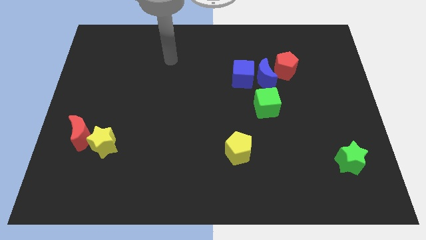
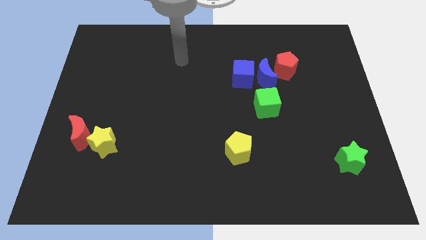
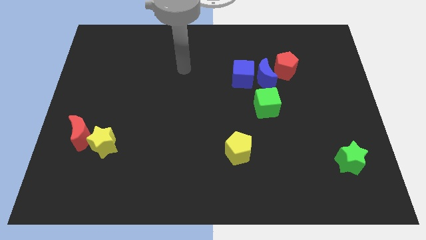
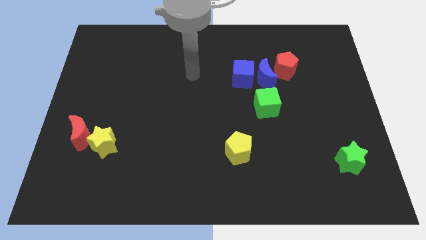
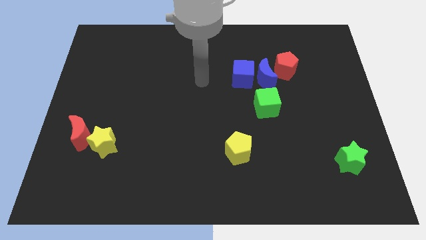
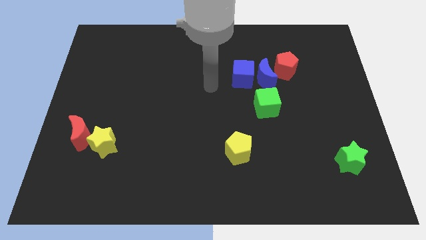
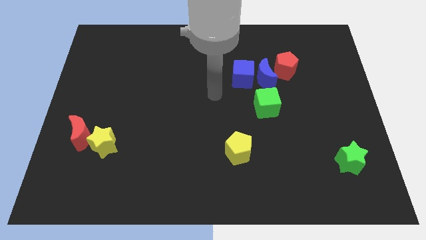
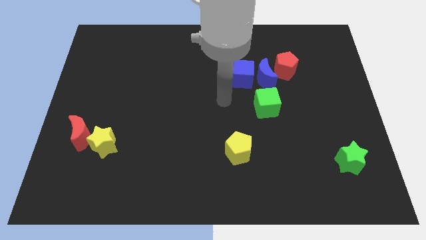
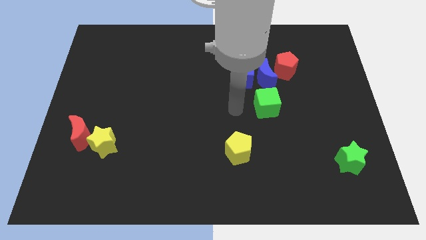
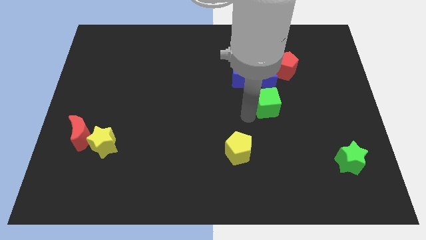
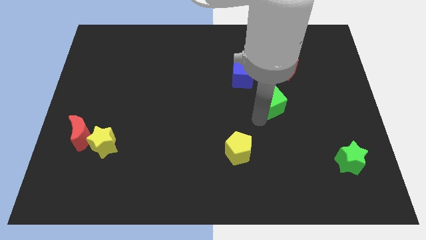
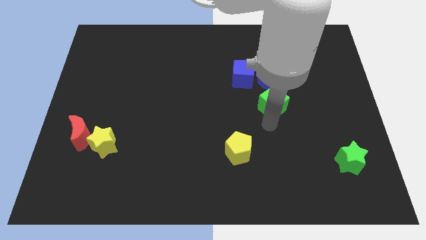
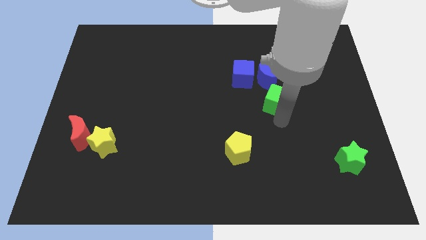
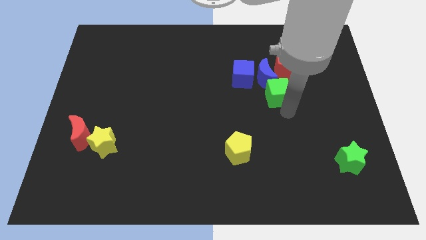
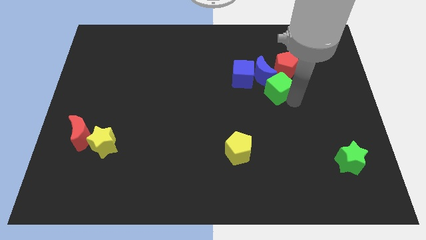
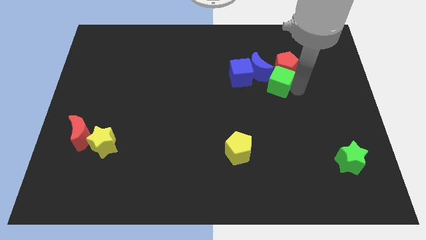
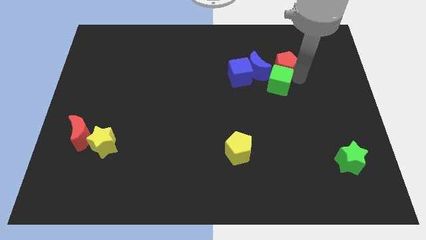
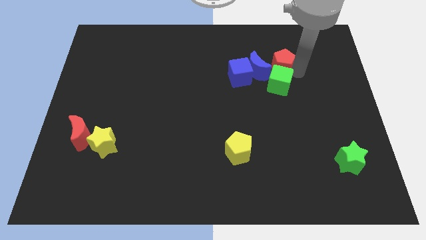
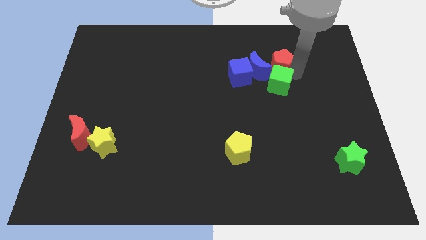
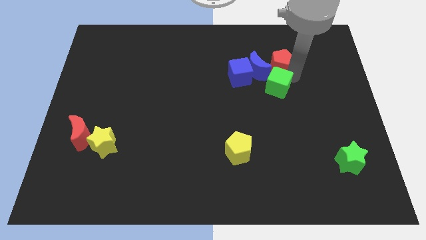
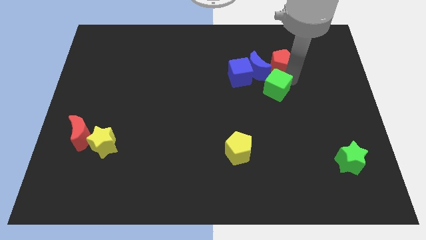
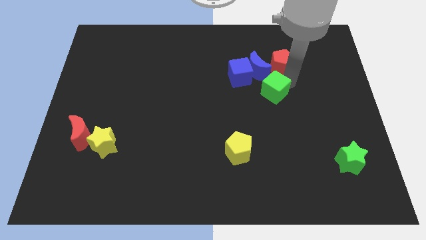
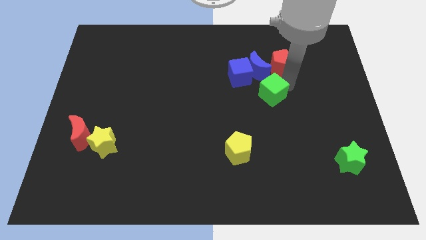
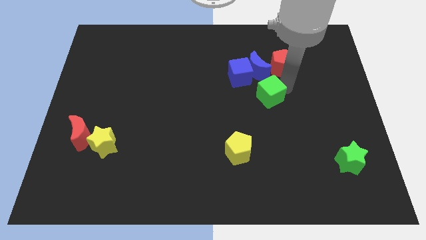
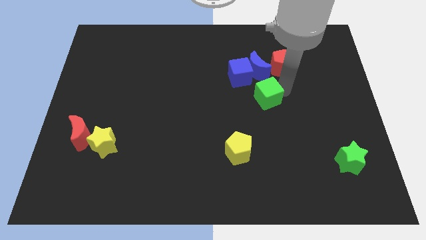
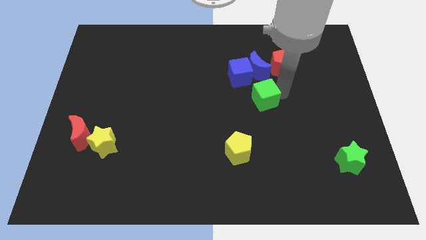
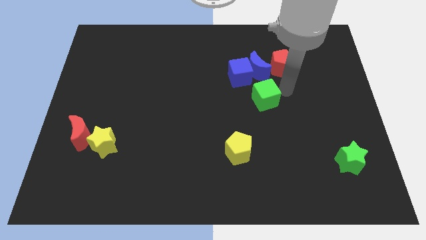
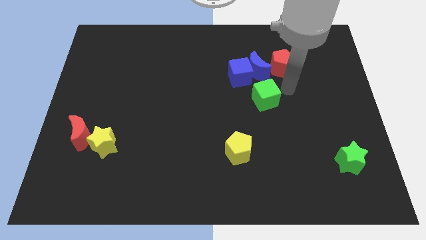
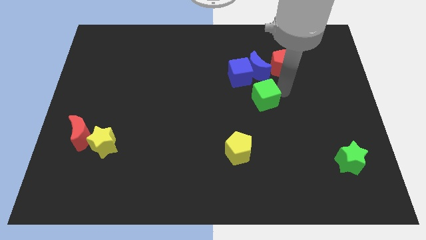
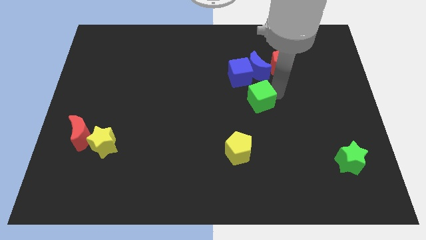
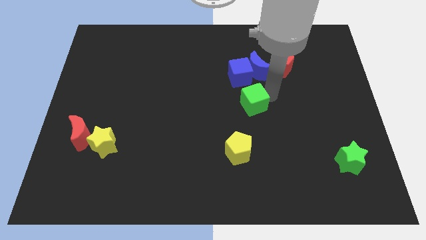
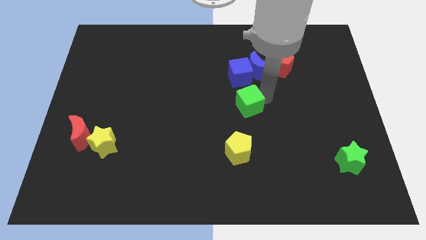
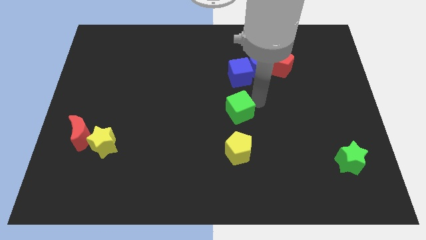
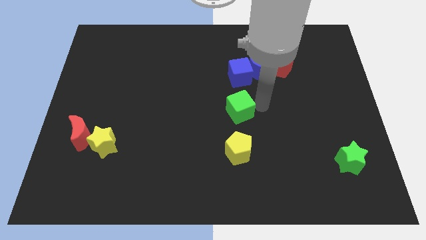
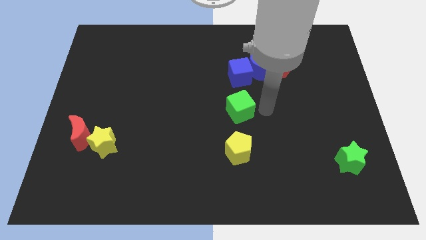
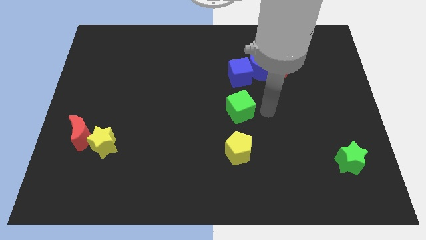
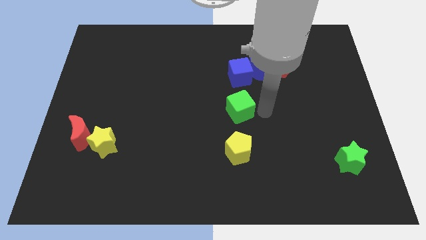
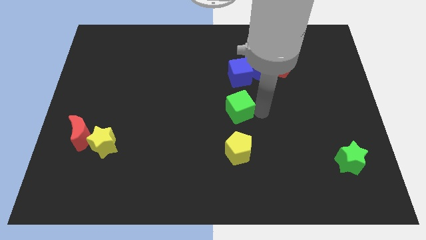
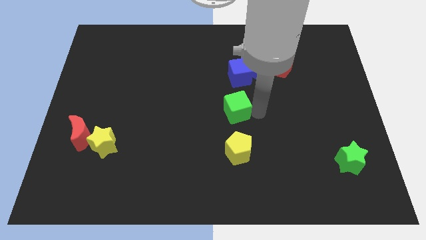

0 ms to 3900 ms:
move the green cube to the left somewhat

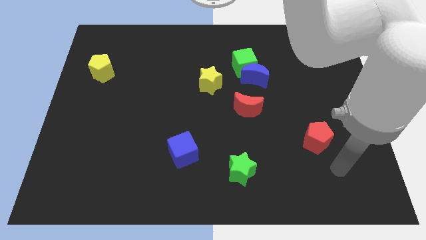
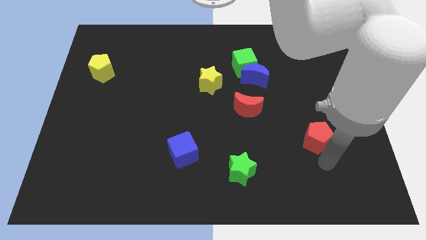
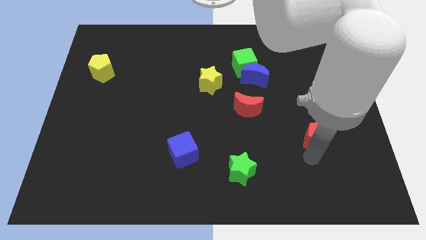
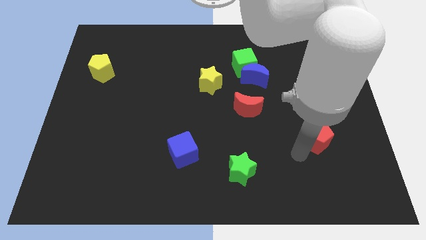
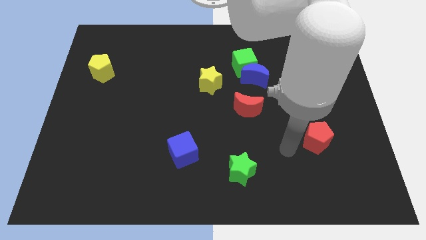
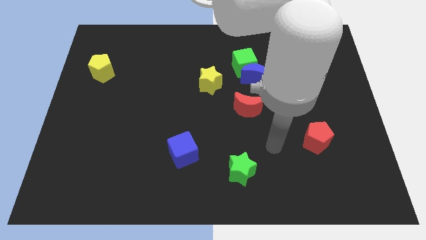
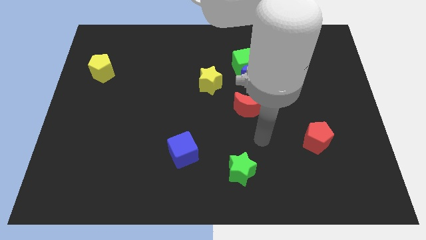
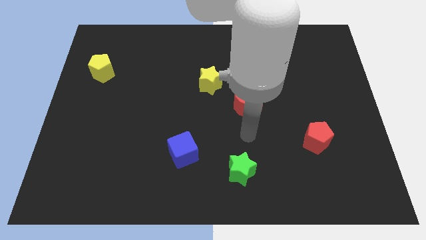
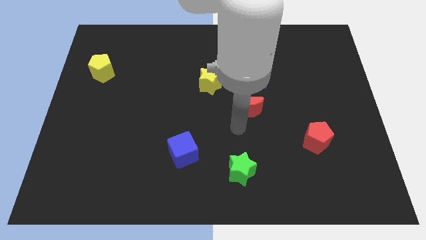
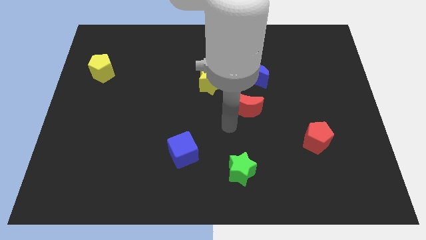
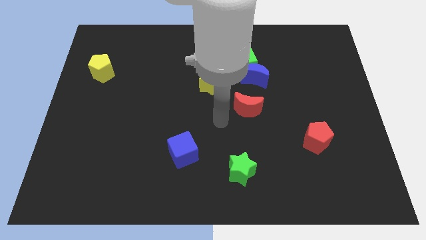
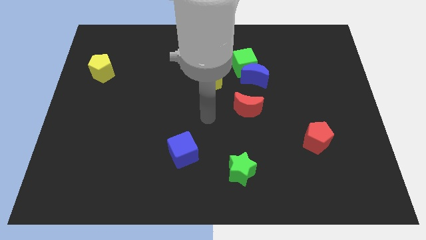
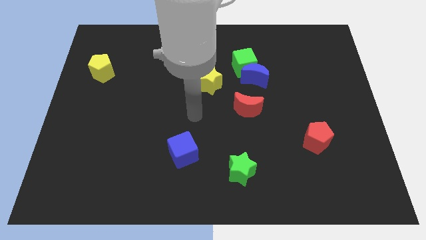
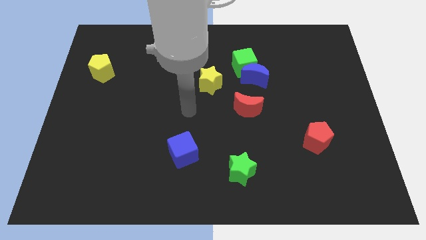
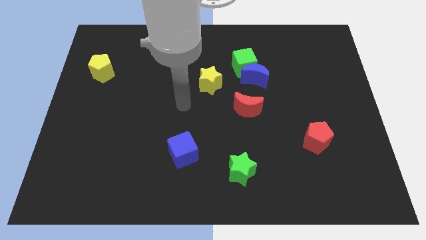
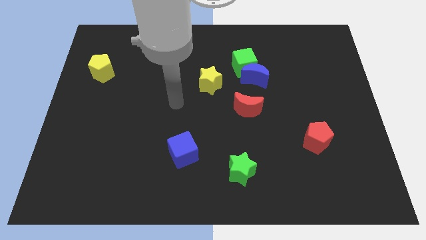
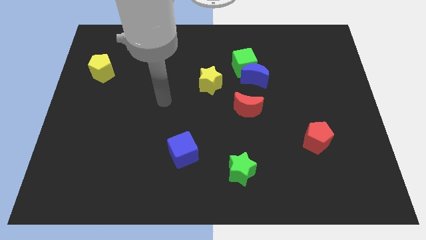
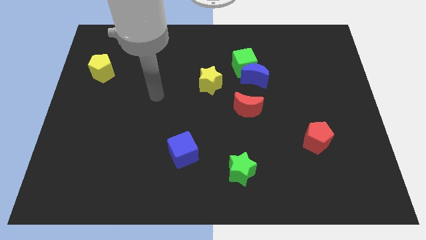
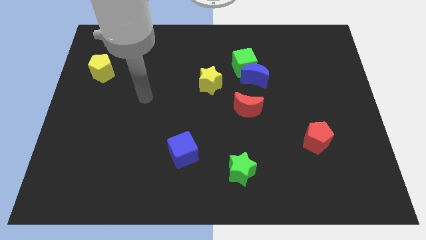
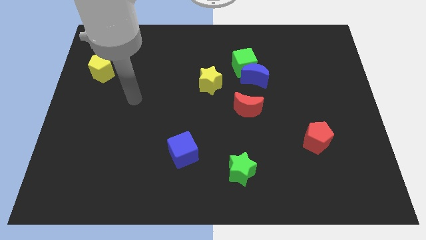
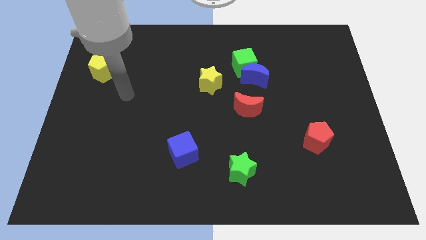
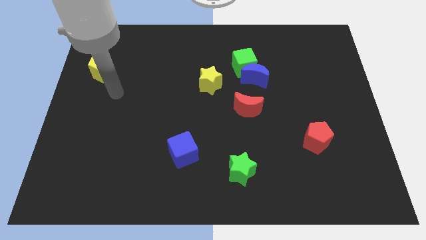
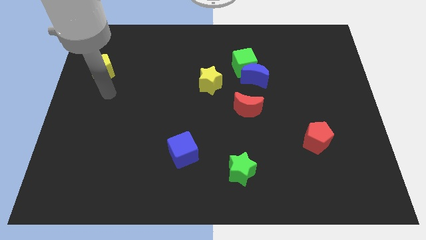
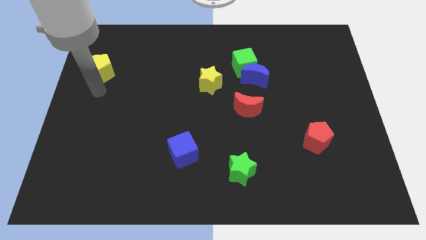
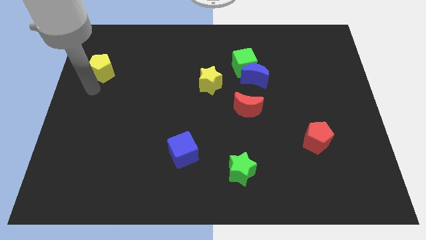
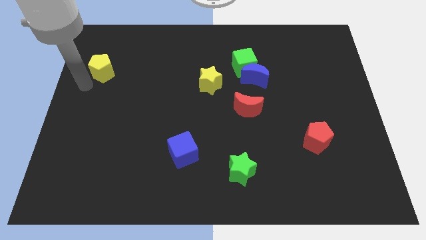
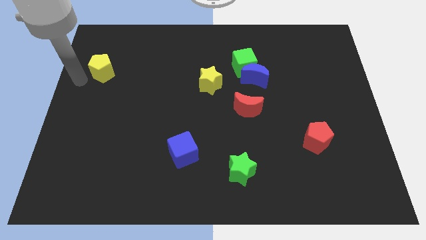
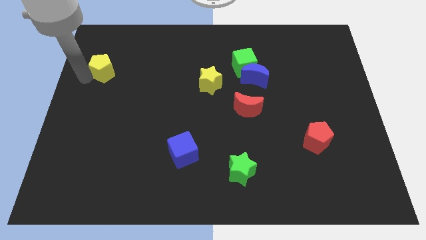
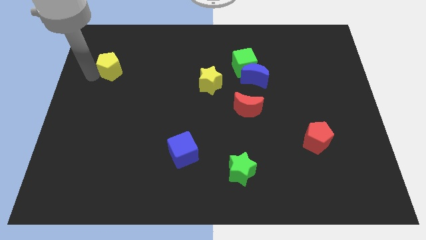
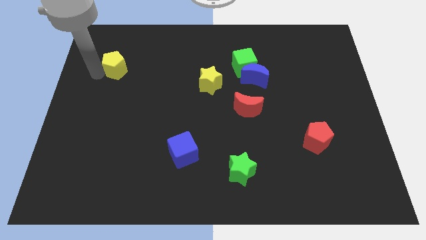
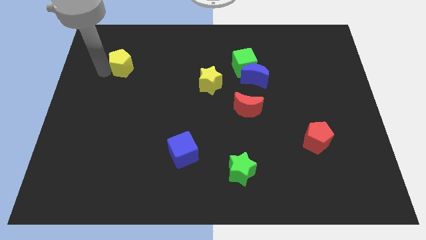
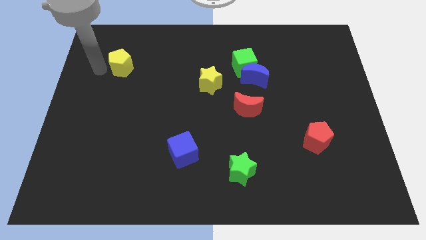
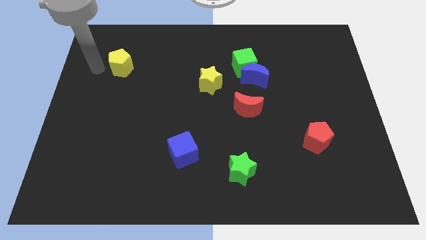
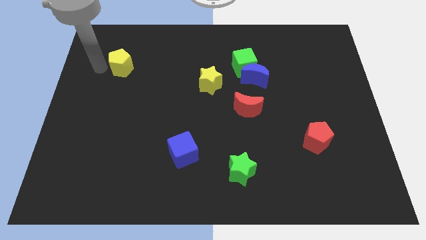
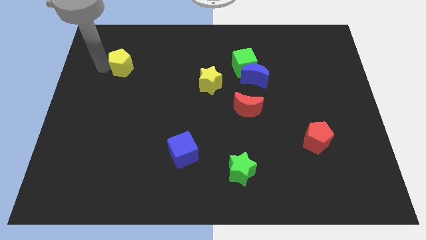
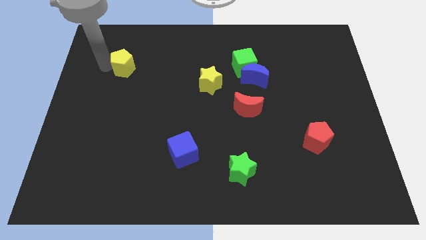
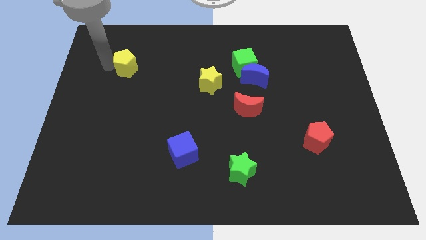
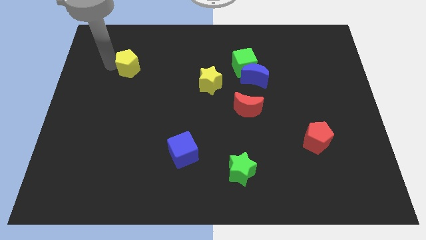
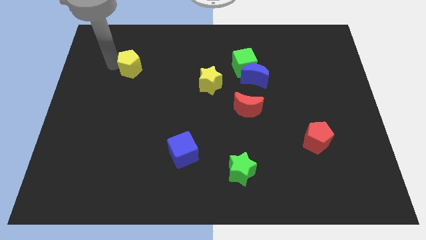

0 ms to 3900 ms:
slide the yellow pentagon right slightly
